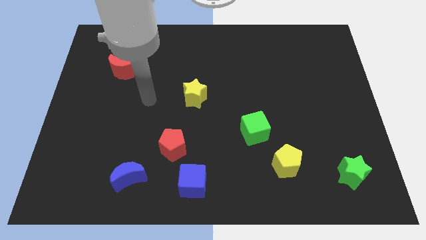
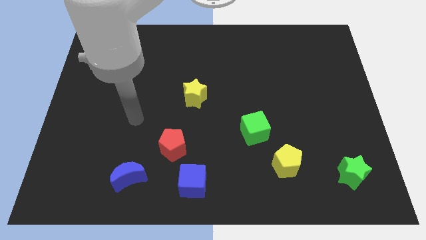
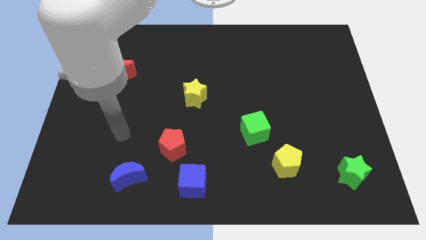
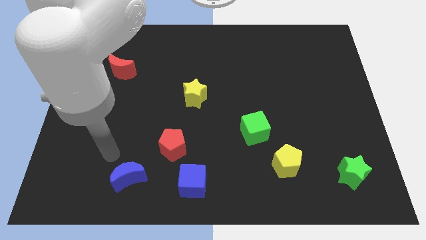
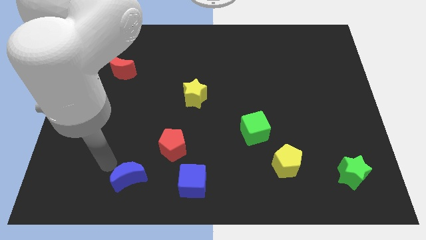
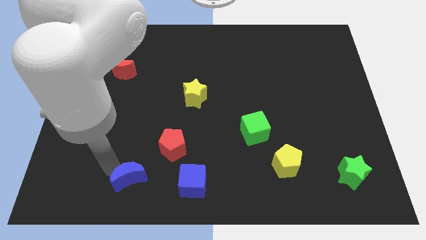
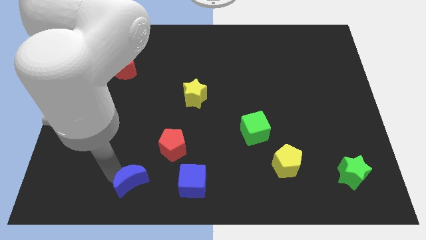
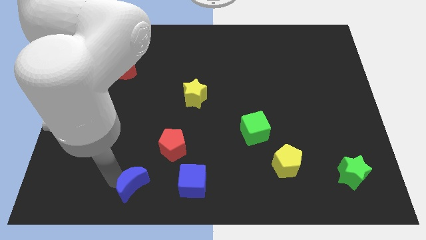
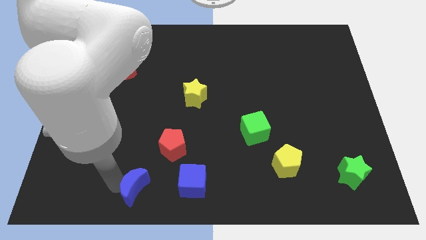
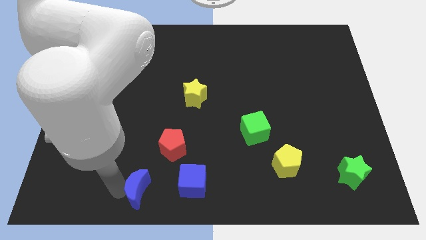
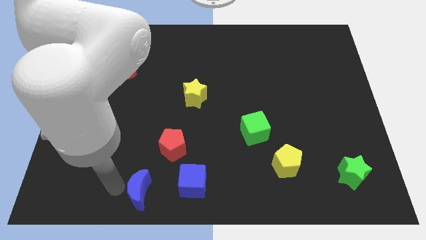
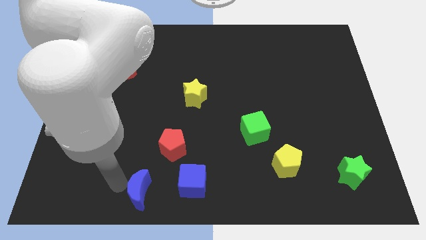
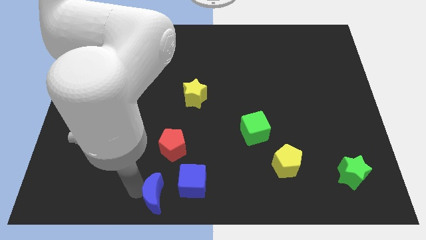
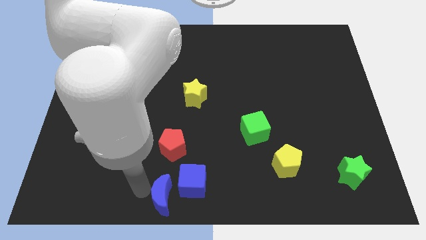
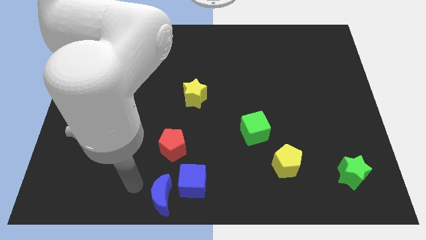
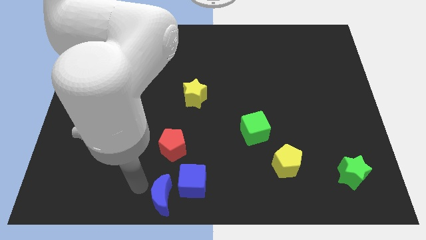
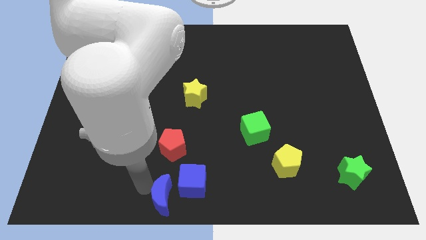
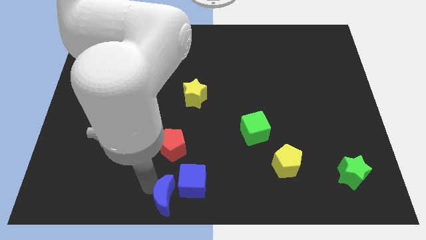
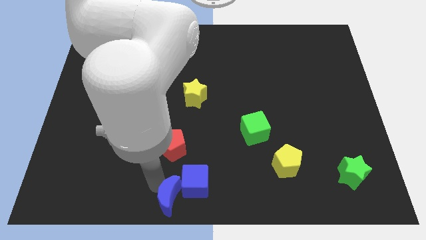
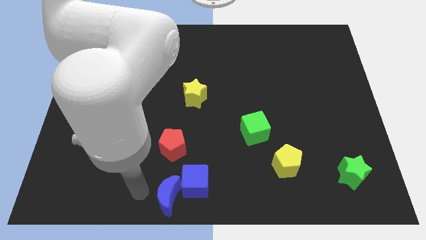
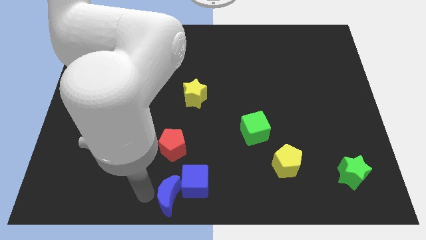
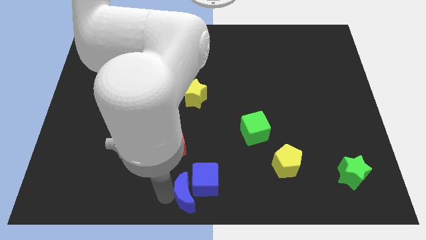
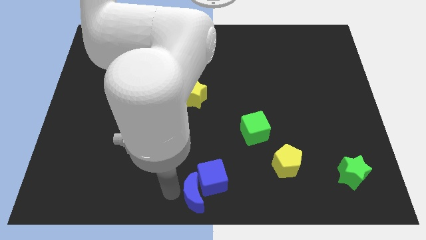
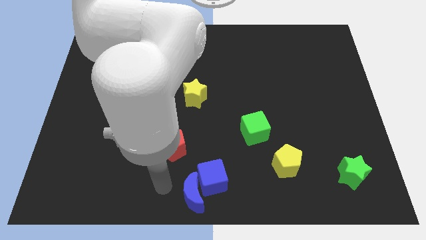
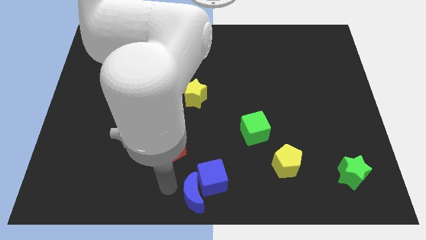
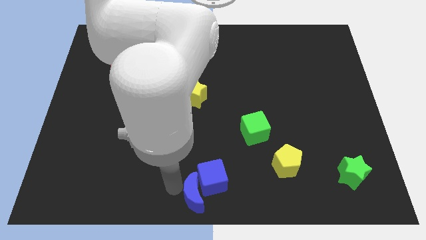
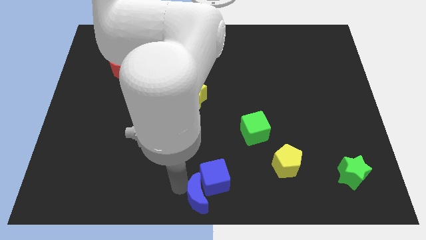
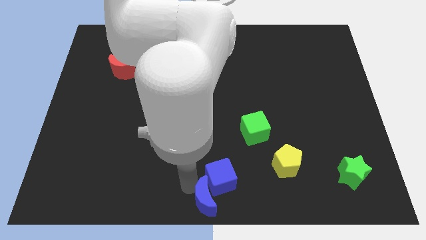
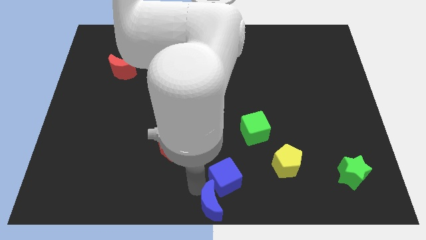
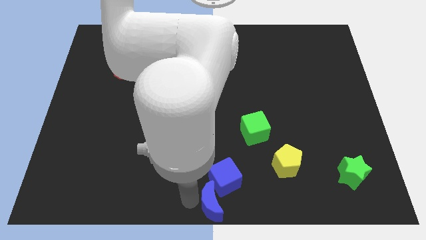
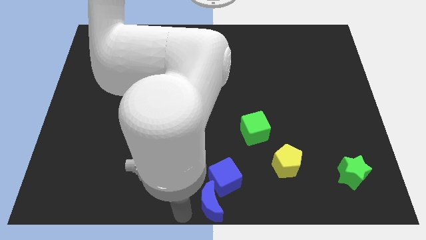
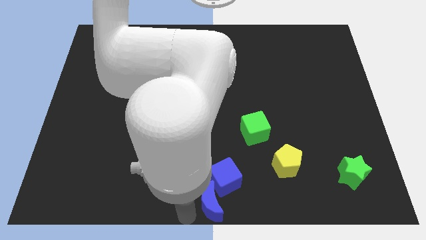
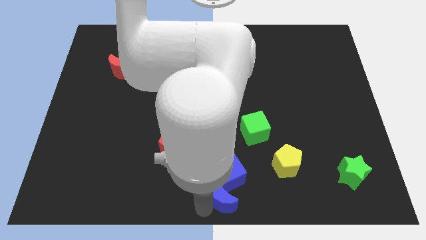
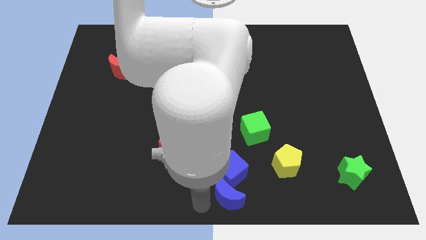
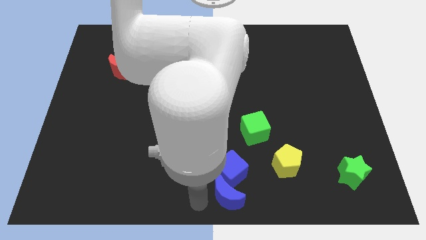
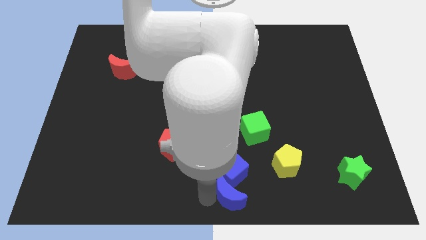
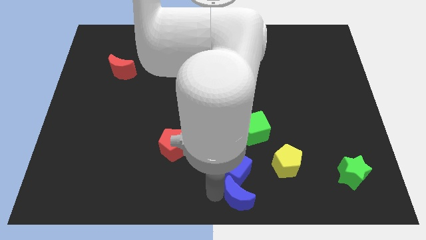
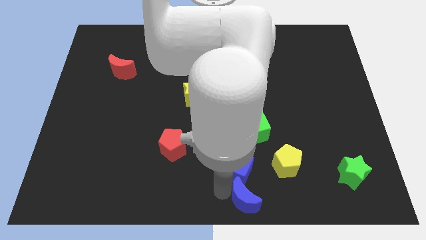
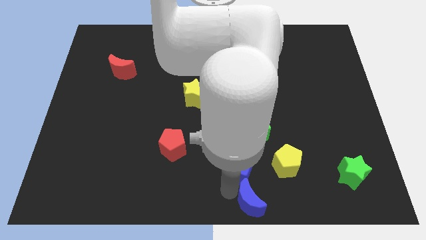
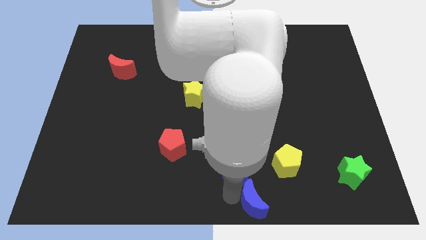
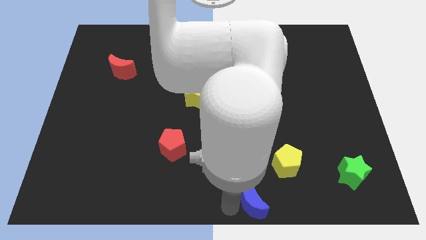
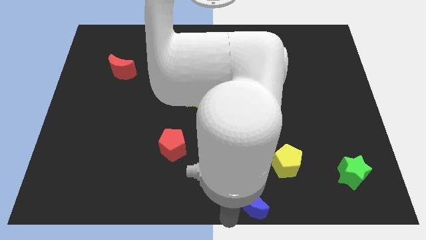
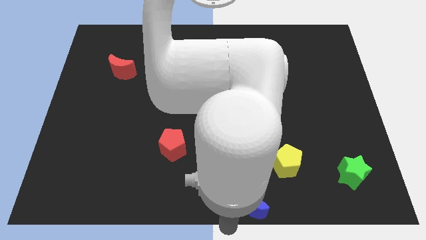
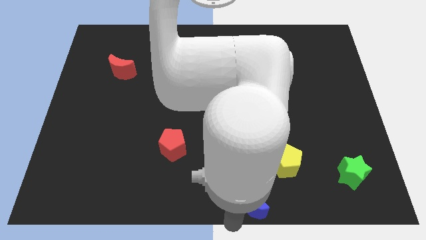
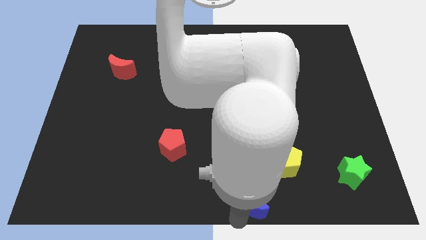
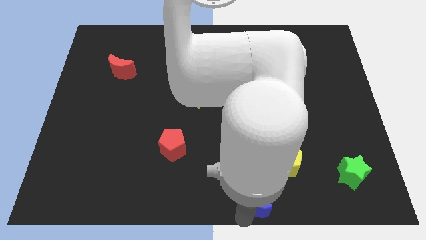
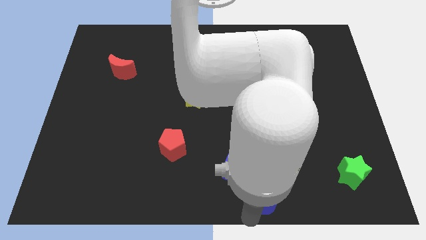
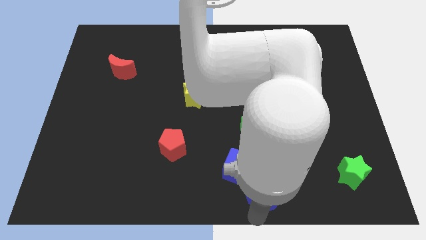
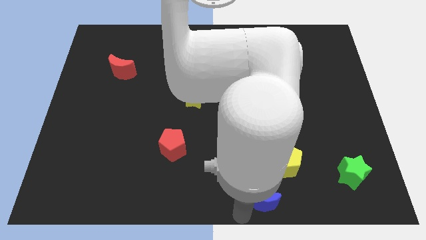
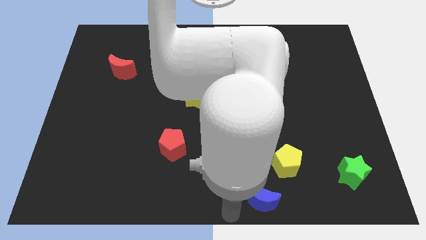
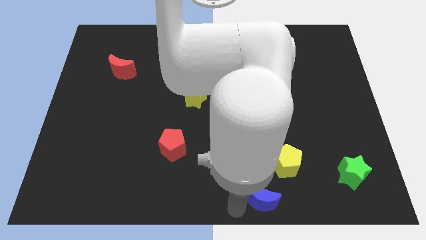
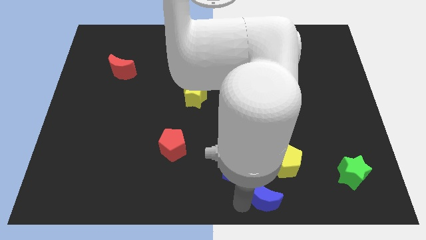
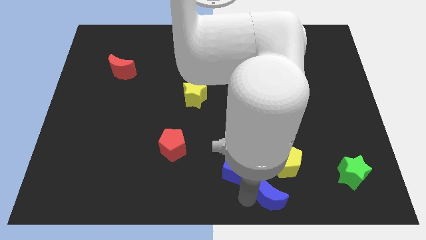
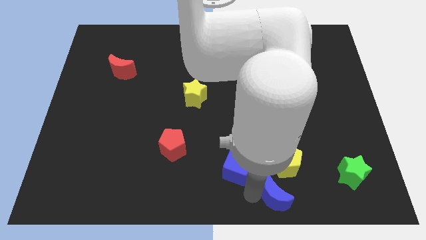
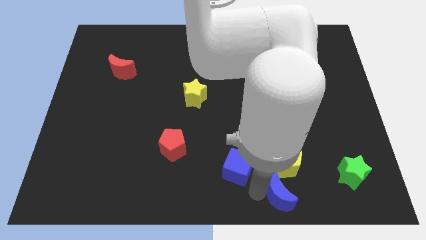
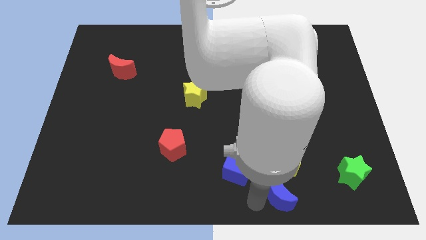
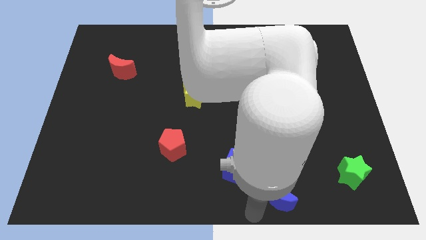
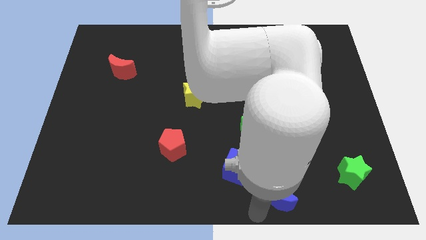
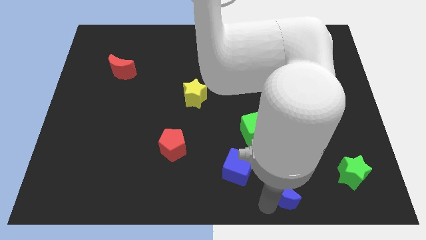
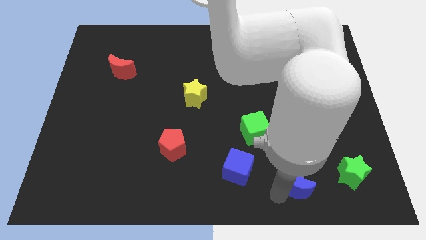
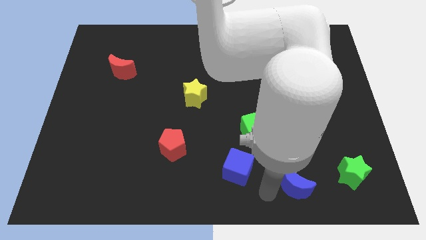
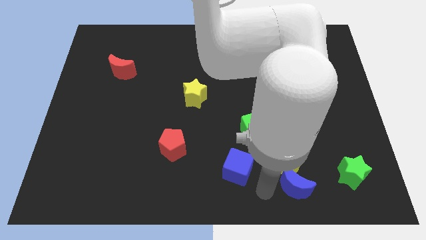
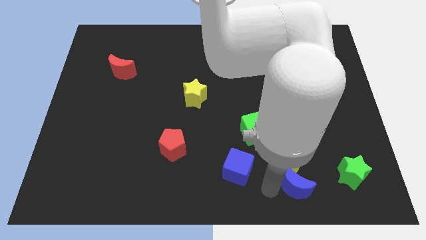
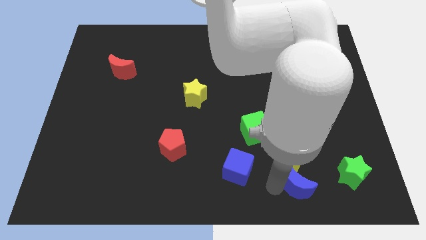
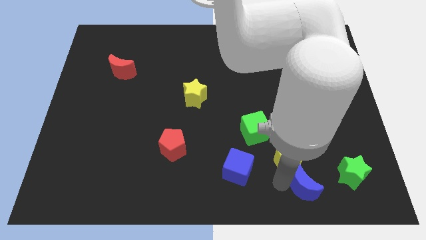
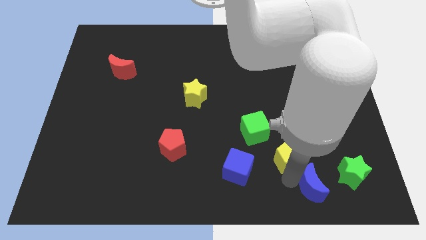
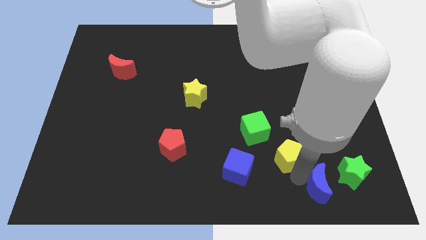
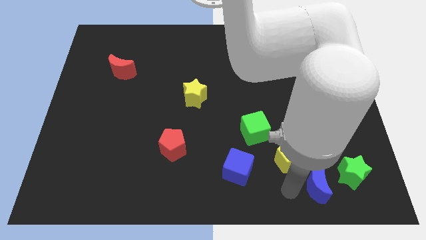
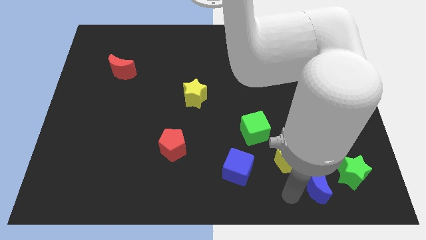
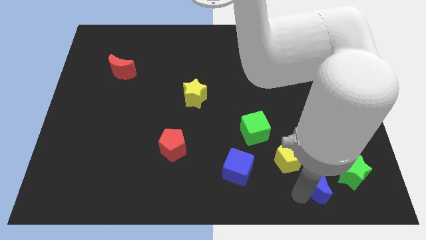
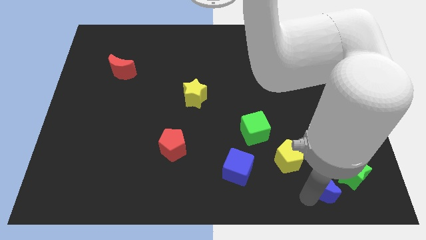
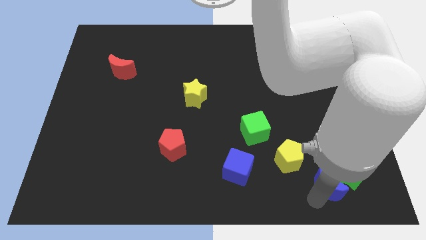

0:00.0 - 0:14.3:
push the blue moon to the green star
